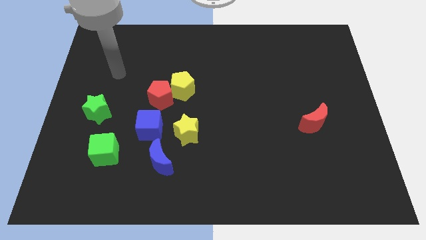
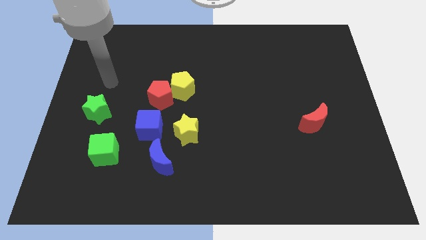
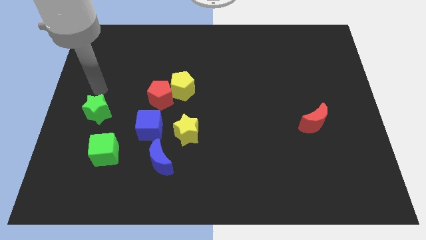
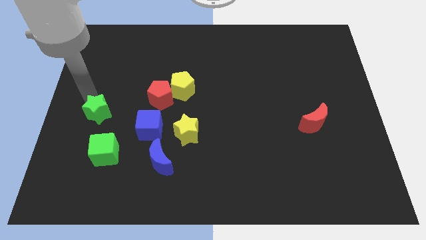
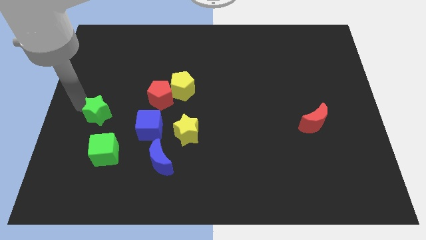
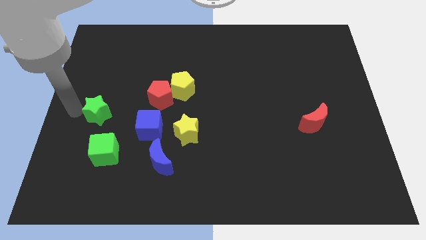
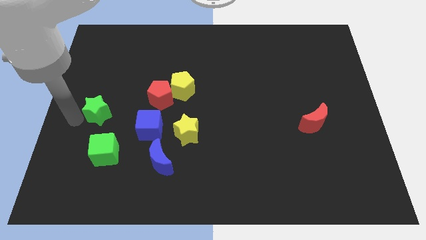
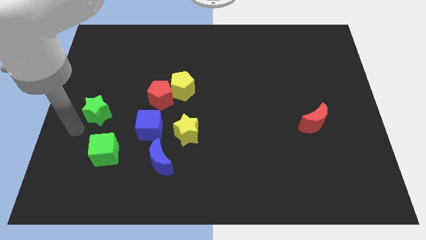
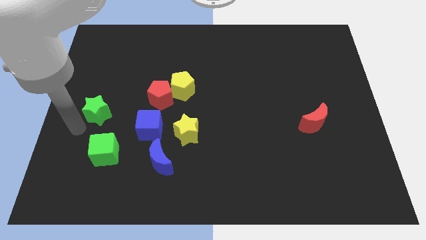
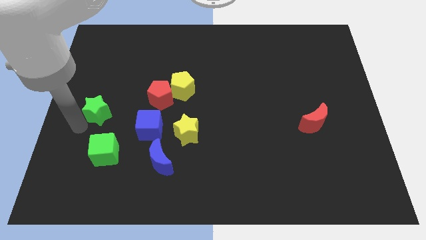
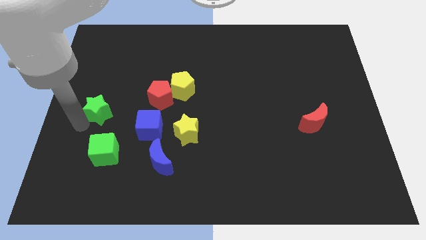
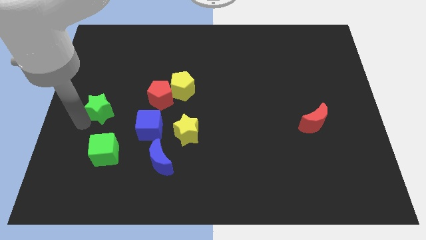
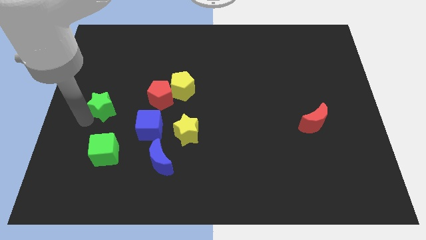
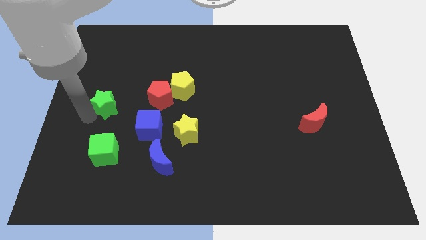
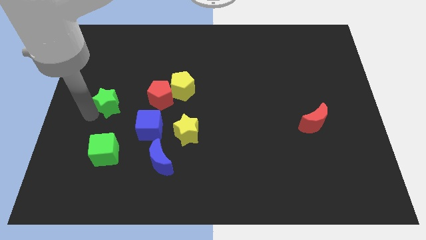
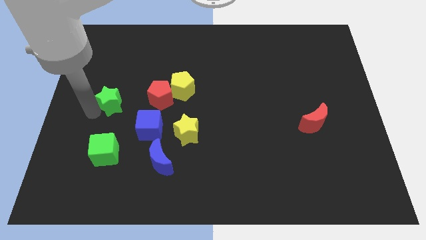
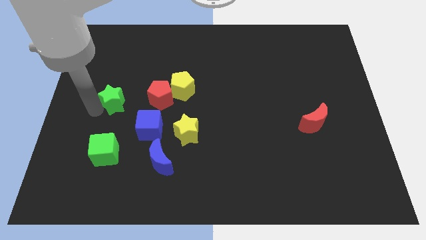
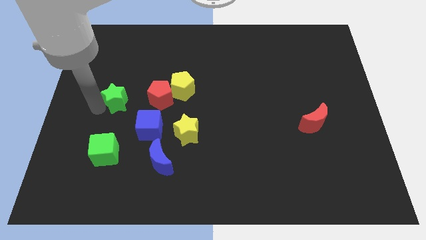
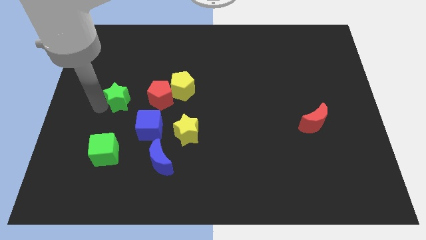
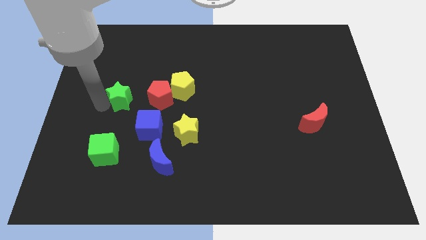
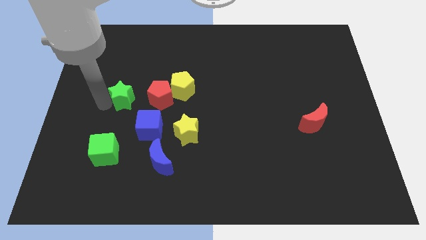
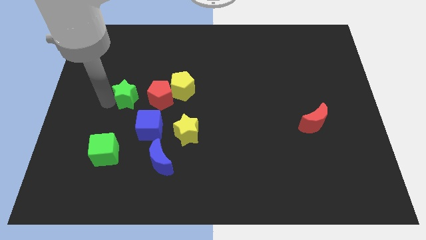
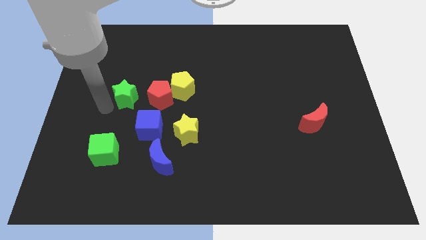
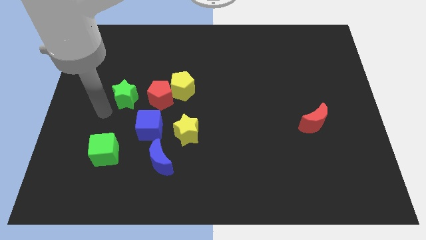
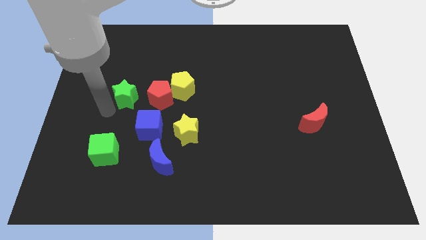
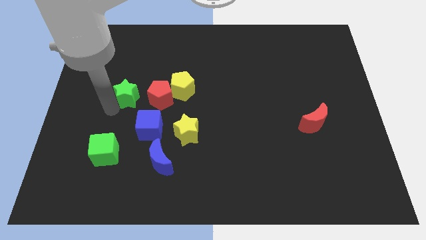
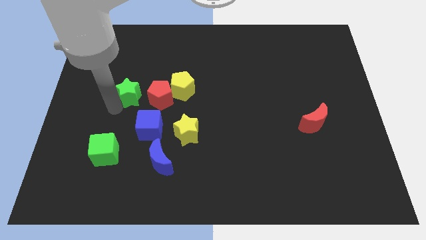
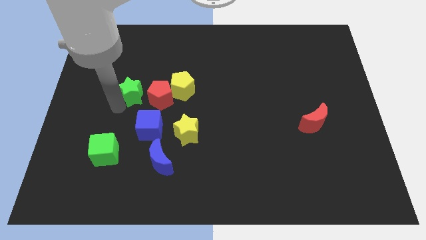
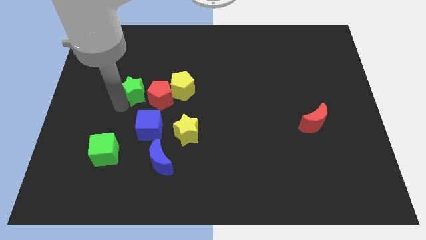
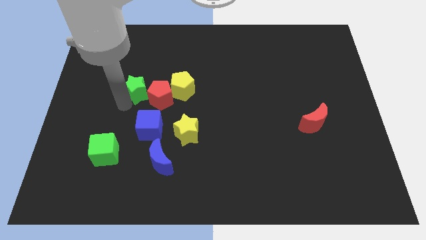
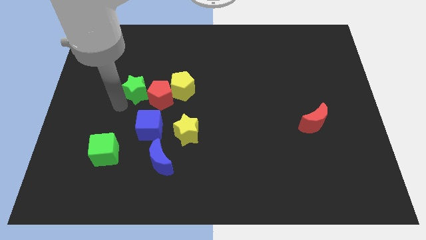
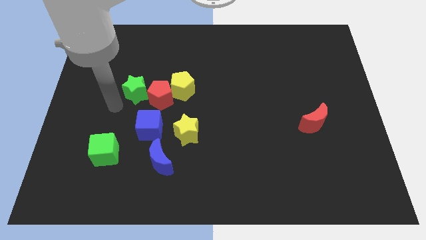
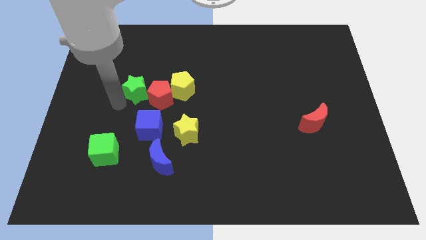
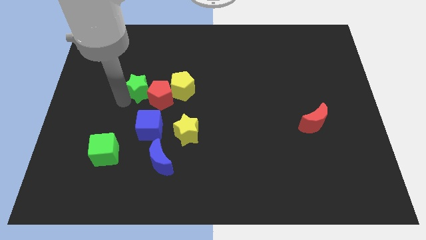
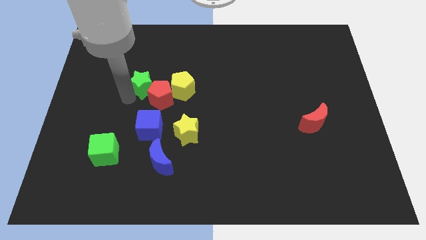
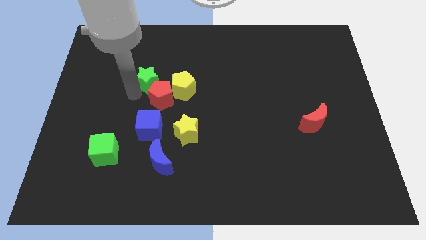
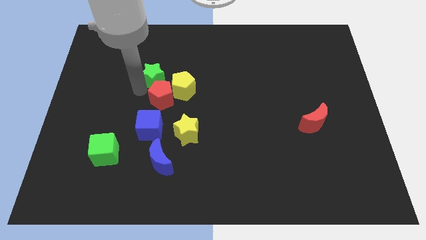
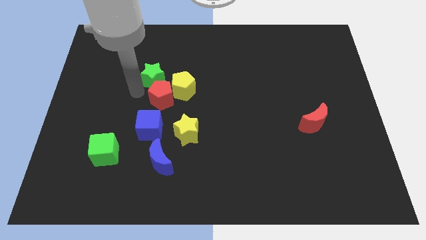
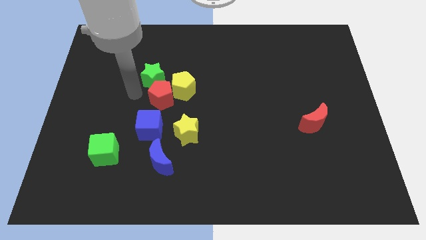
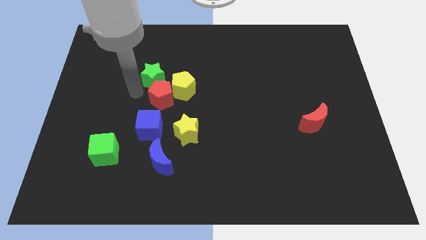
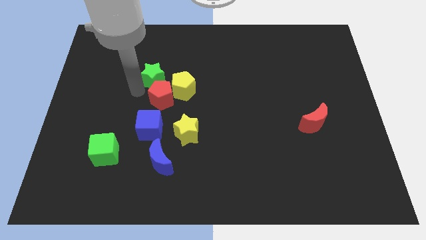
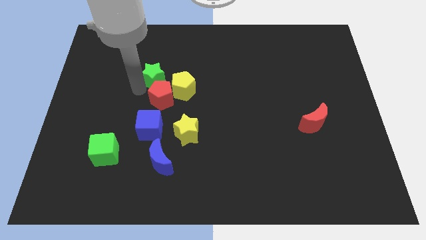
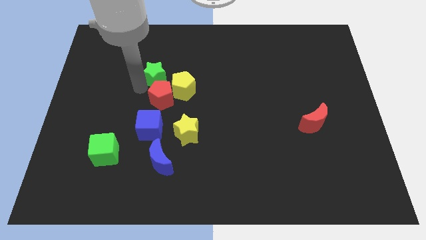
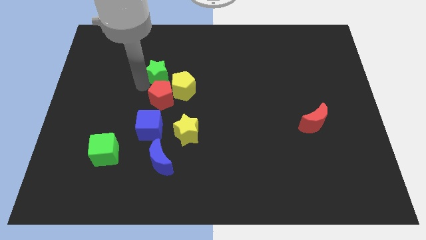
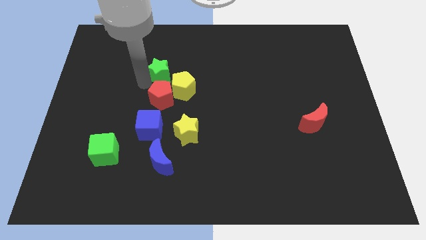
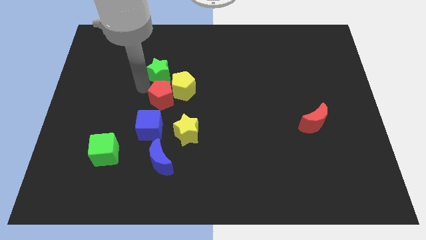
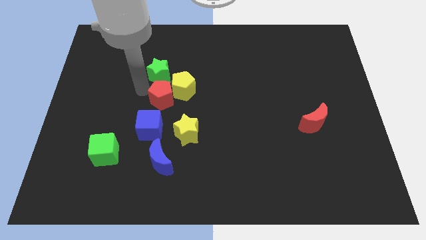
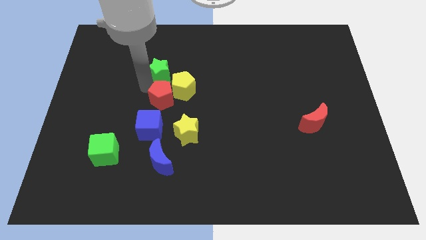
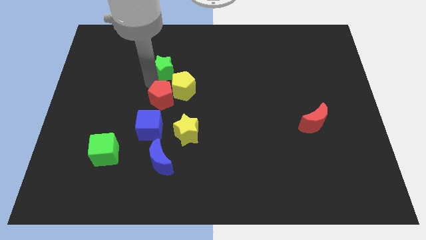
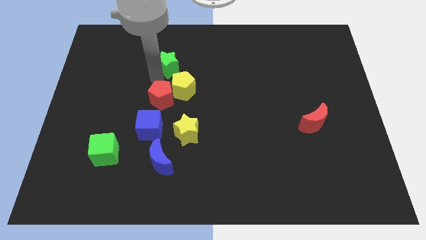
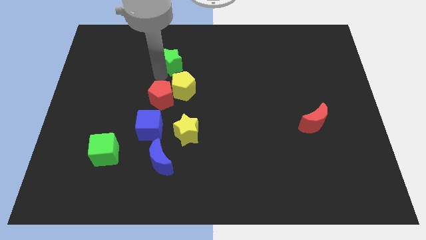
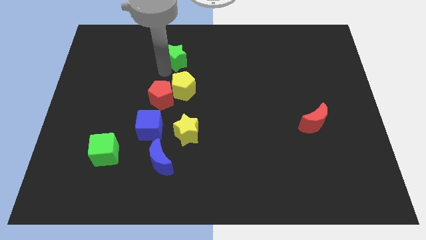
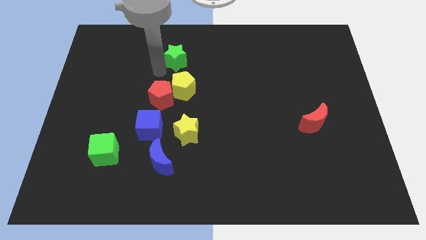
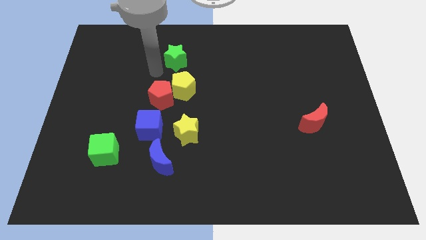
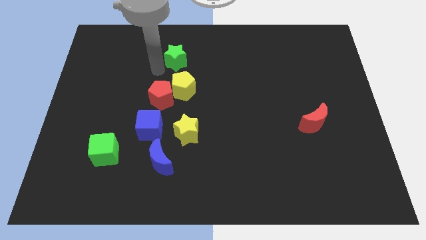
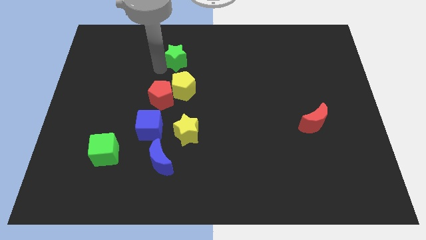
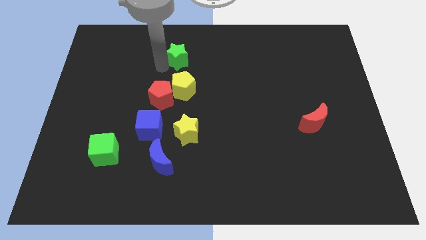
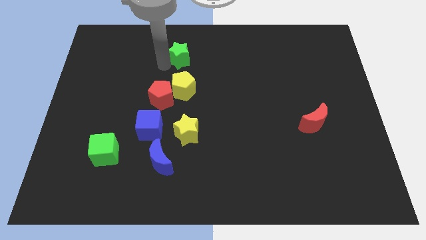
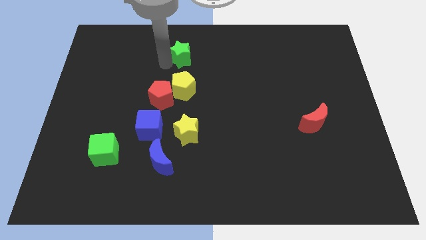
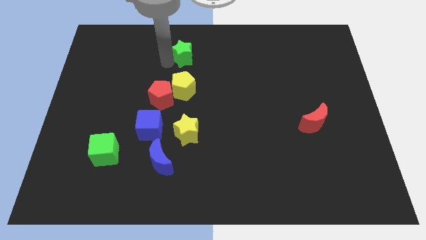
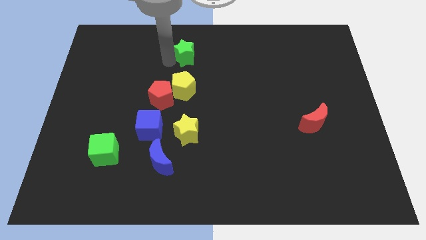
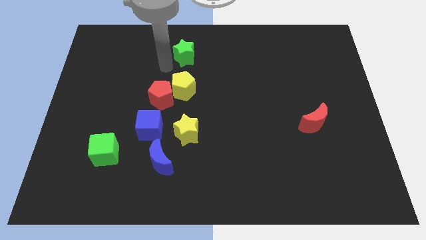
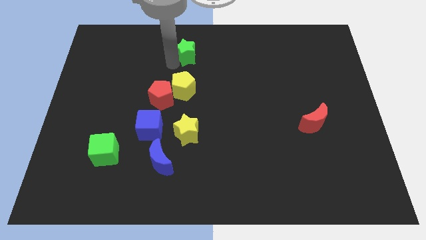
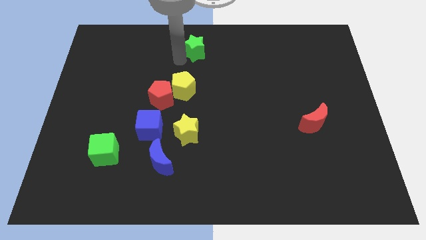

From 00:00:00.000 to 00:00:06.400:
slide the green star to the top
